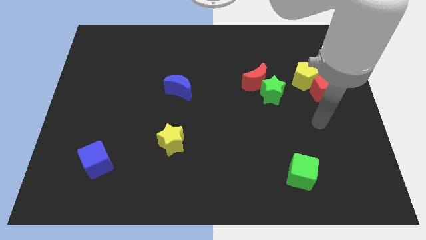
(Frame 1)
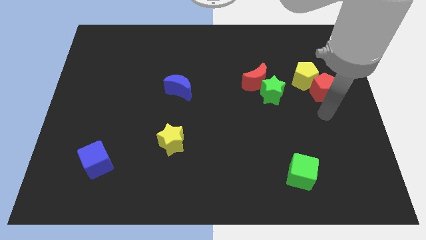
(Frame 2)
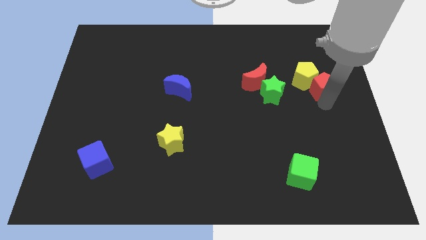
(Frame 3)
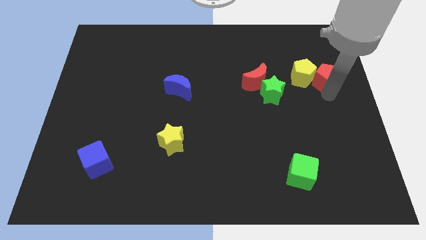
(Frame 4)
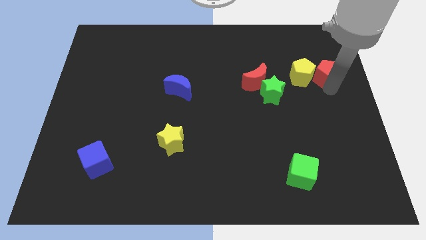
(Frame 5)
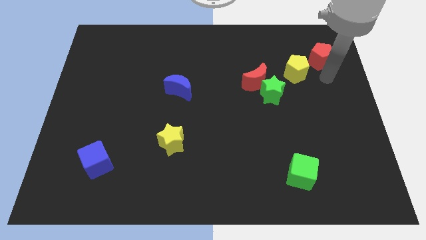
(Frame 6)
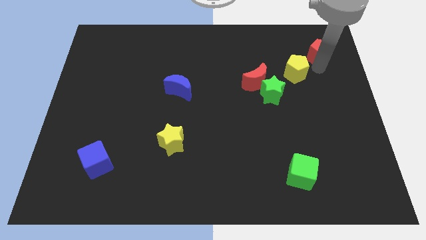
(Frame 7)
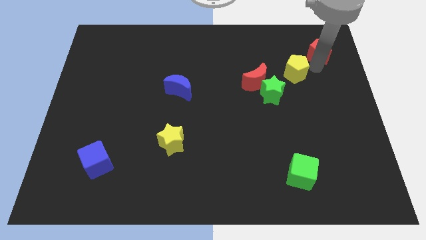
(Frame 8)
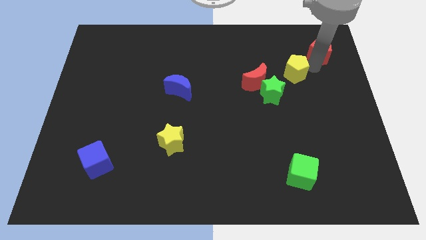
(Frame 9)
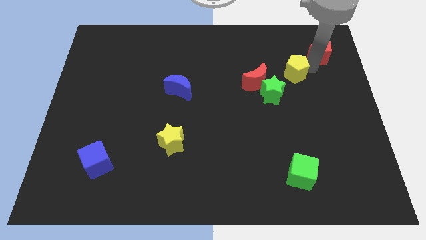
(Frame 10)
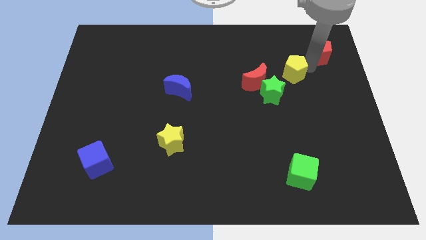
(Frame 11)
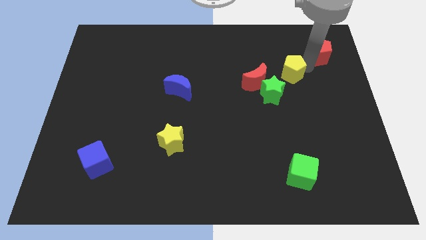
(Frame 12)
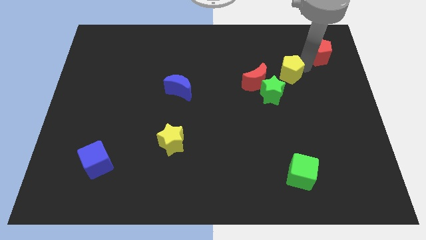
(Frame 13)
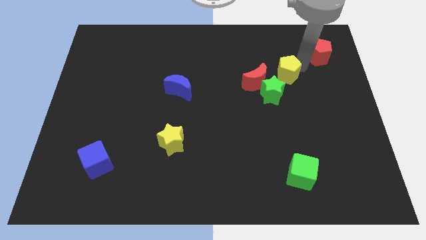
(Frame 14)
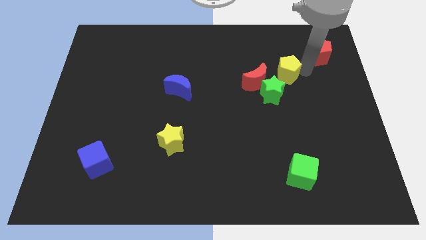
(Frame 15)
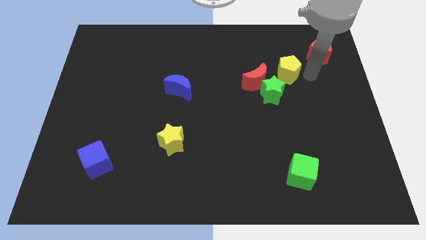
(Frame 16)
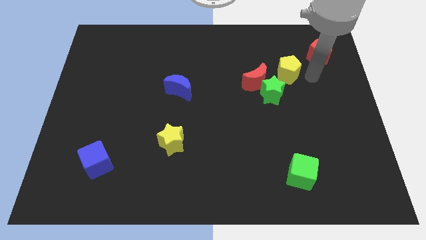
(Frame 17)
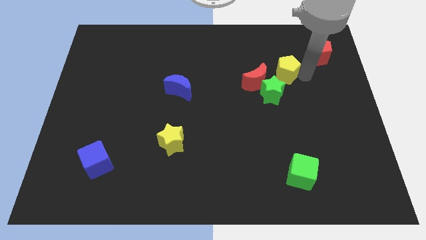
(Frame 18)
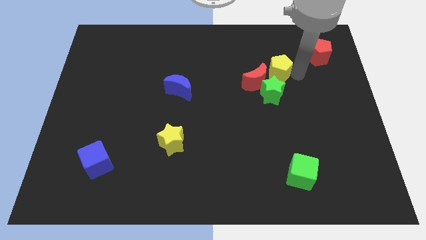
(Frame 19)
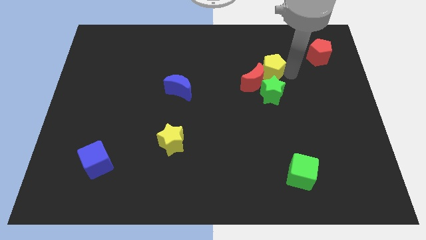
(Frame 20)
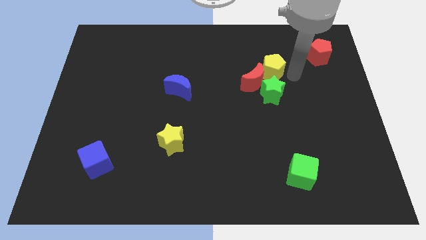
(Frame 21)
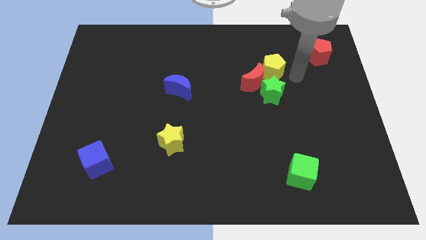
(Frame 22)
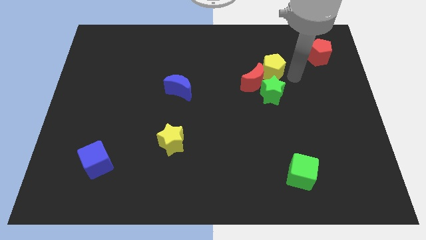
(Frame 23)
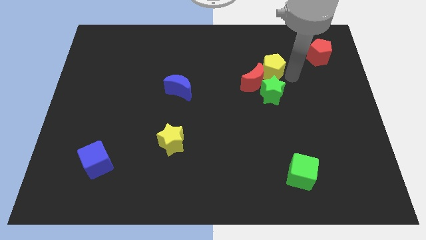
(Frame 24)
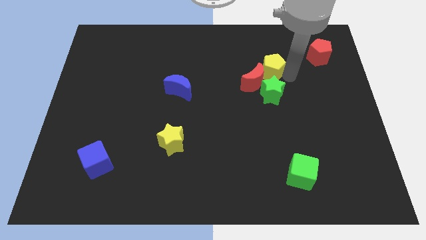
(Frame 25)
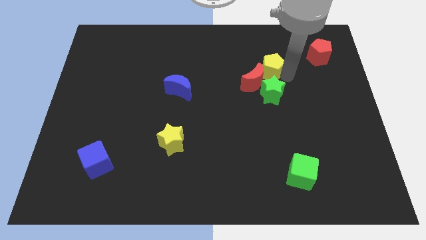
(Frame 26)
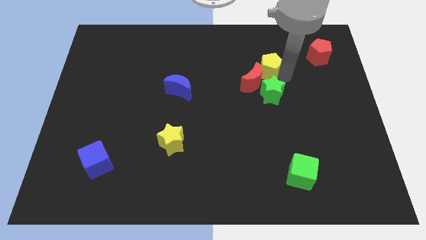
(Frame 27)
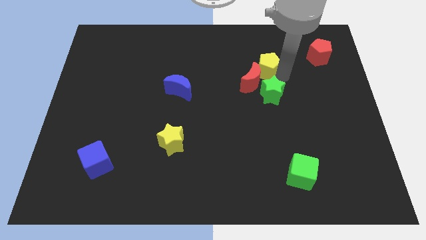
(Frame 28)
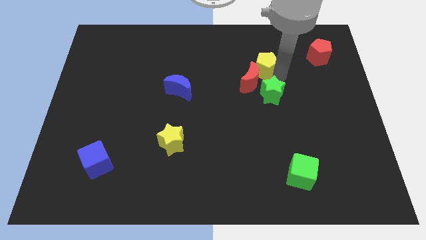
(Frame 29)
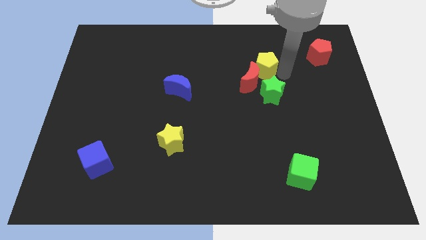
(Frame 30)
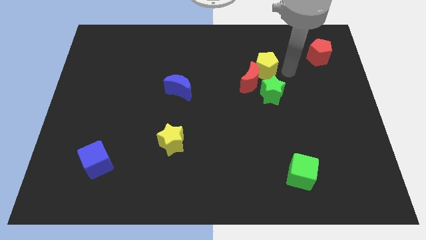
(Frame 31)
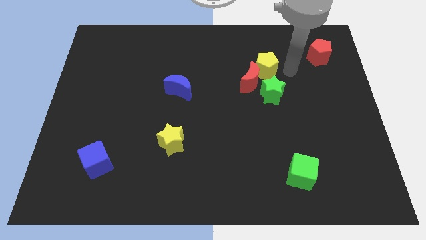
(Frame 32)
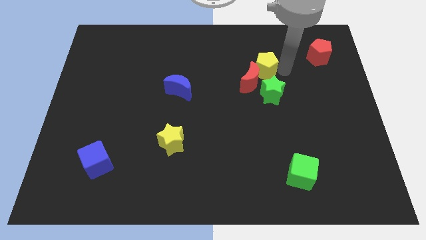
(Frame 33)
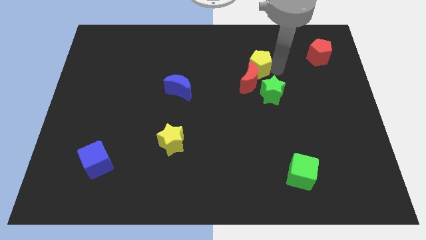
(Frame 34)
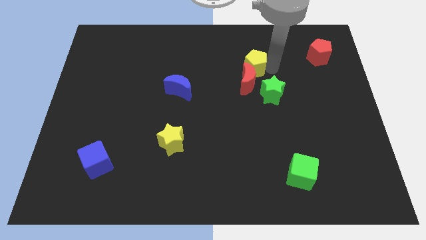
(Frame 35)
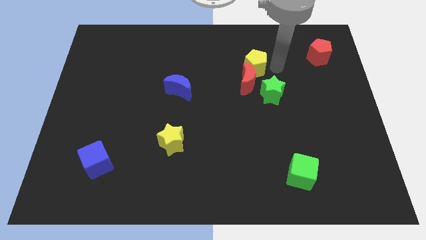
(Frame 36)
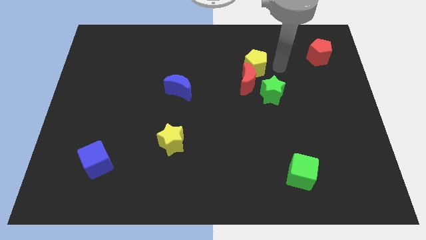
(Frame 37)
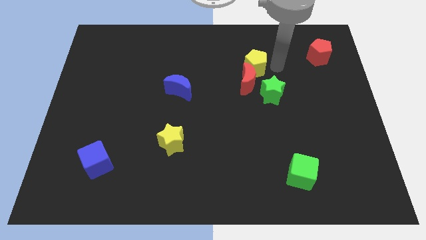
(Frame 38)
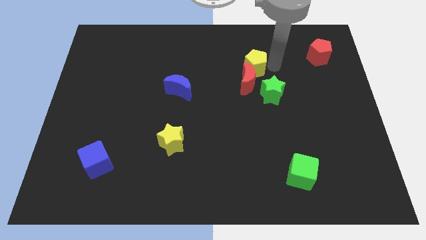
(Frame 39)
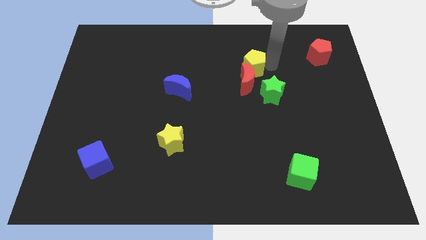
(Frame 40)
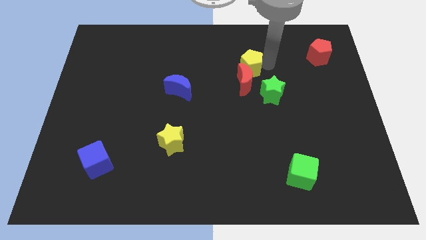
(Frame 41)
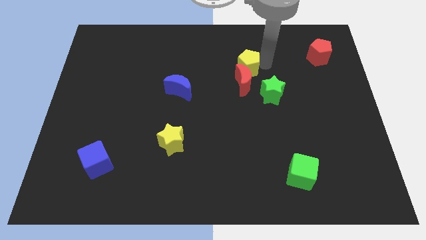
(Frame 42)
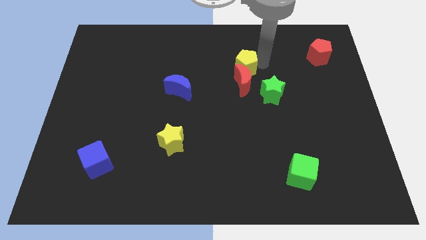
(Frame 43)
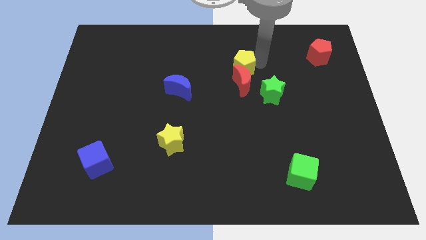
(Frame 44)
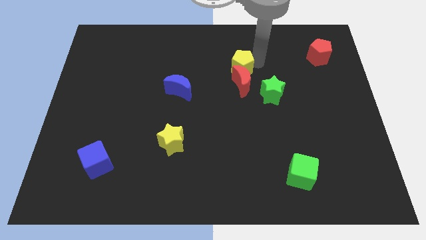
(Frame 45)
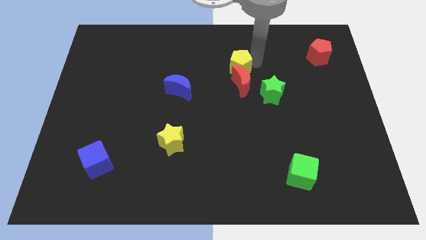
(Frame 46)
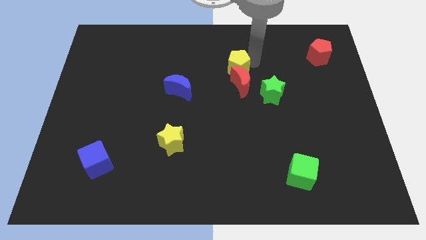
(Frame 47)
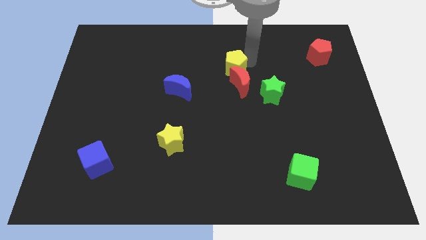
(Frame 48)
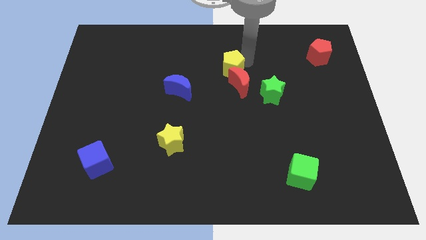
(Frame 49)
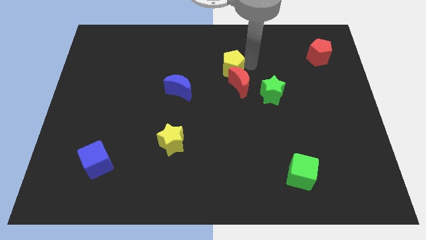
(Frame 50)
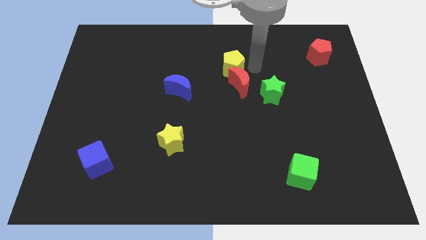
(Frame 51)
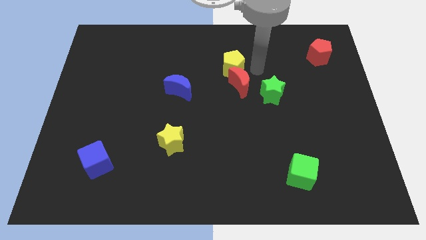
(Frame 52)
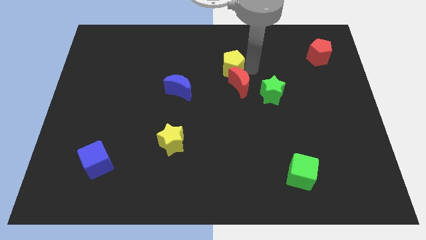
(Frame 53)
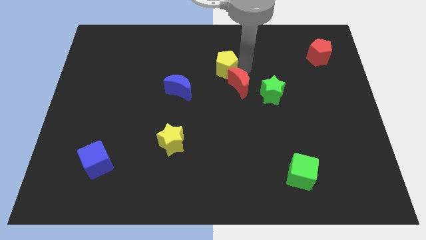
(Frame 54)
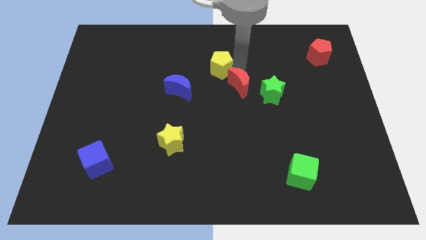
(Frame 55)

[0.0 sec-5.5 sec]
push the yellow pentagon to the left

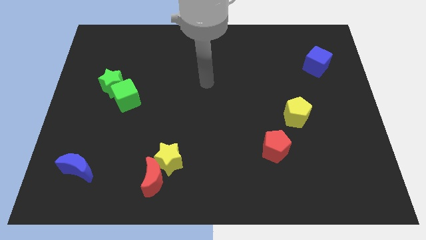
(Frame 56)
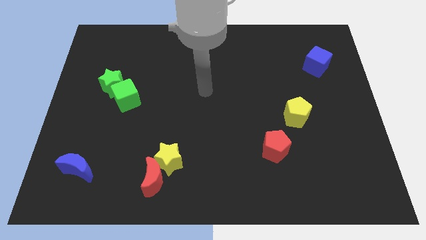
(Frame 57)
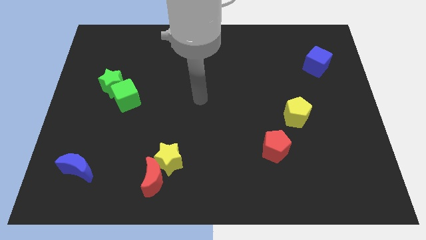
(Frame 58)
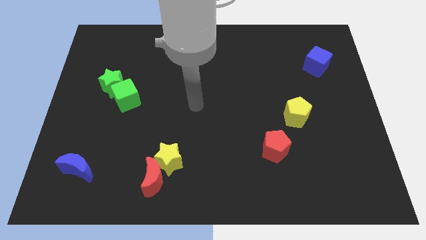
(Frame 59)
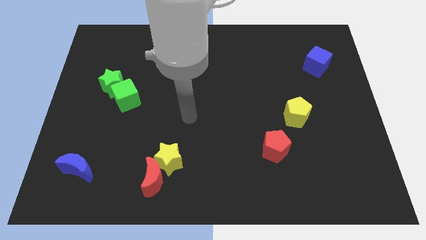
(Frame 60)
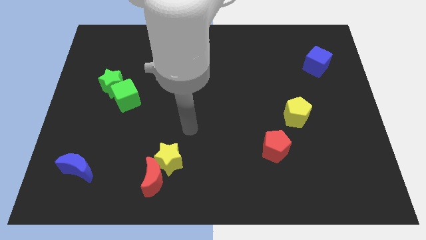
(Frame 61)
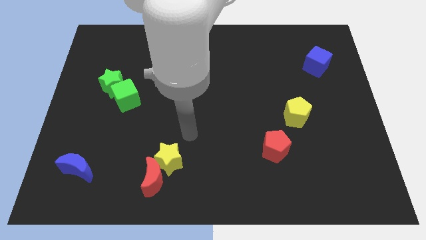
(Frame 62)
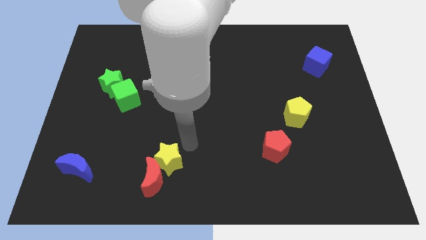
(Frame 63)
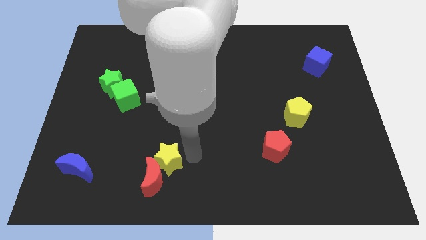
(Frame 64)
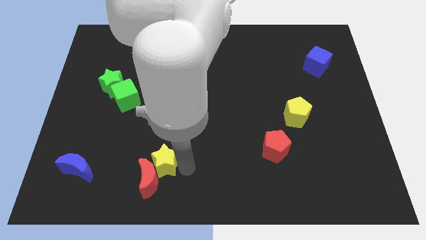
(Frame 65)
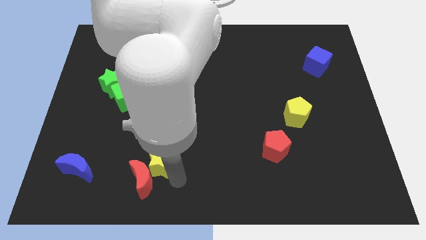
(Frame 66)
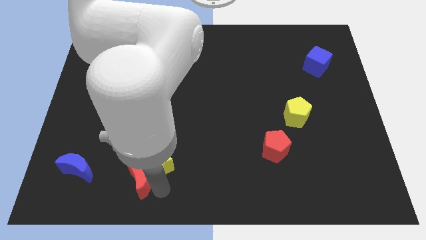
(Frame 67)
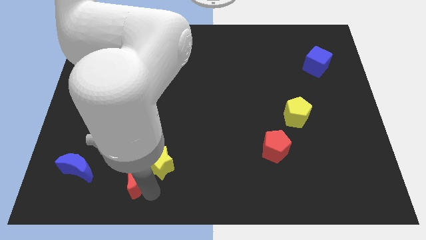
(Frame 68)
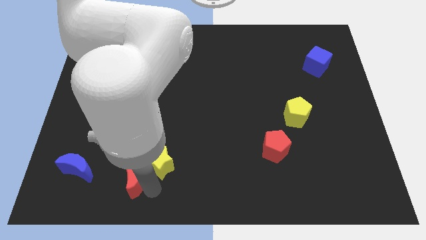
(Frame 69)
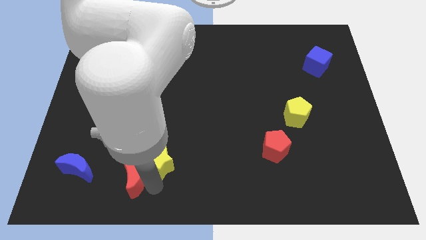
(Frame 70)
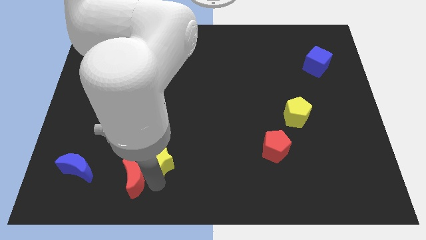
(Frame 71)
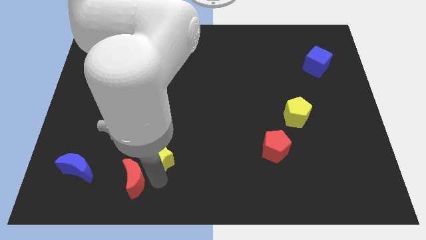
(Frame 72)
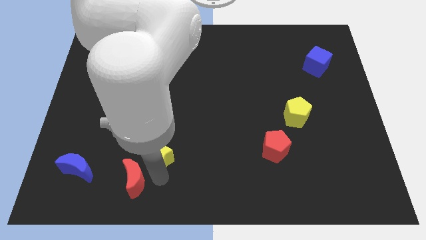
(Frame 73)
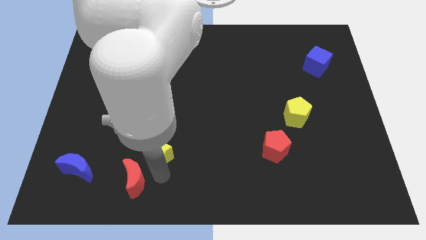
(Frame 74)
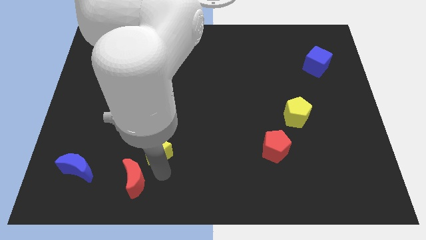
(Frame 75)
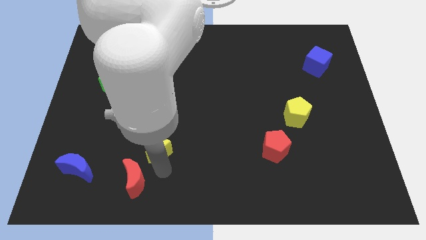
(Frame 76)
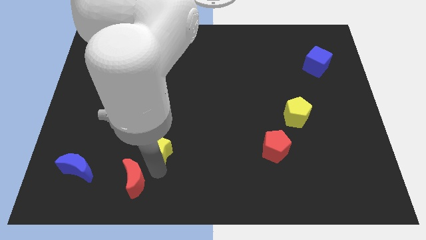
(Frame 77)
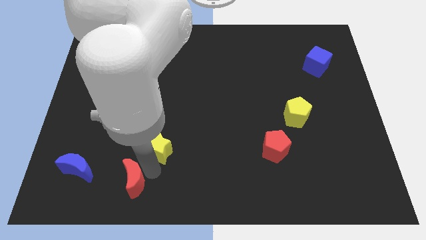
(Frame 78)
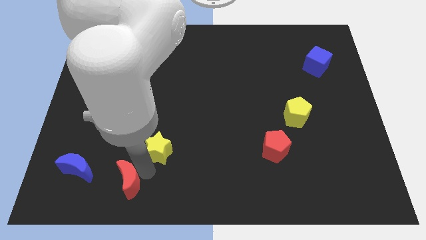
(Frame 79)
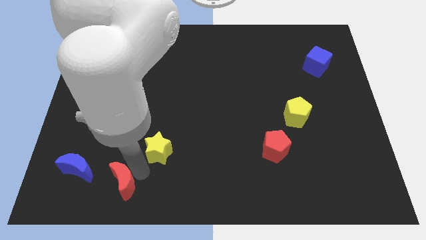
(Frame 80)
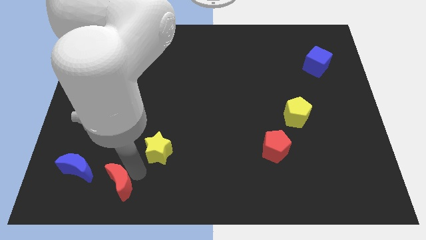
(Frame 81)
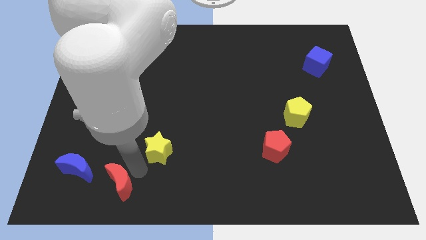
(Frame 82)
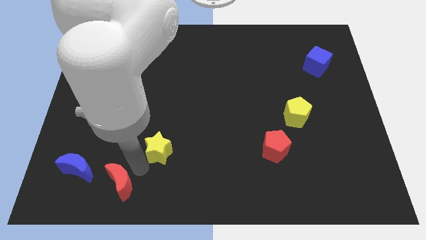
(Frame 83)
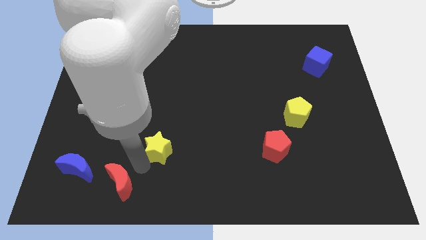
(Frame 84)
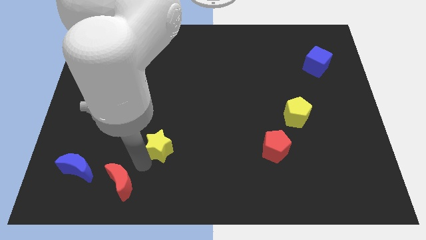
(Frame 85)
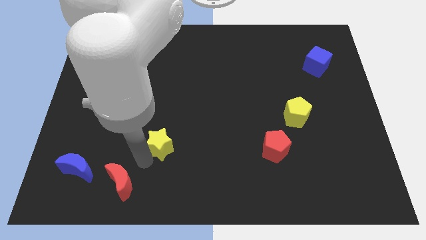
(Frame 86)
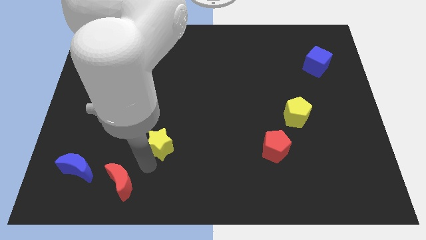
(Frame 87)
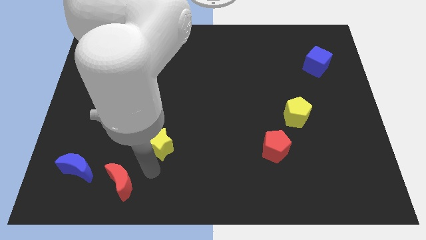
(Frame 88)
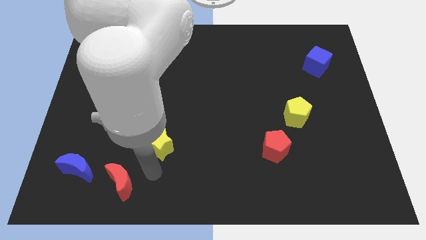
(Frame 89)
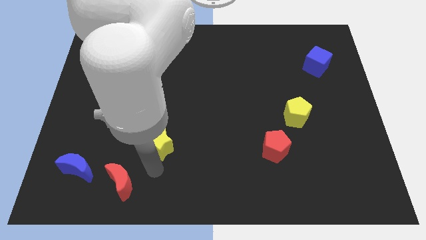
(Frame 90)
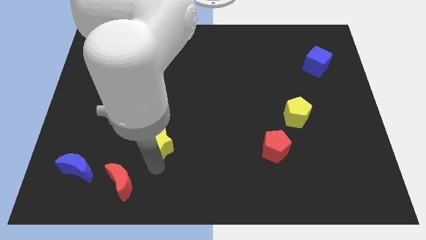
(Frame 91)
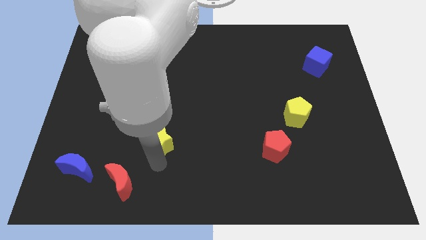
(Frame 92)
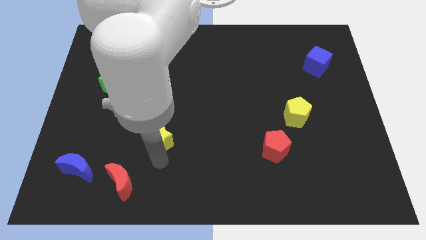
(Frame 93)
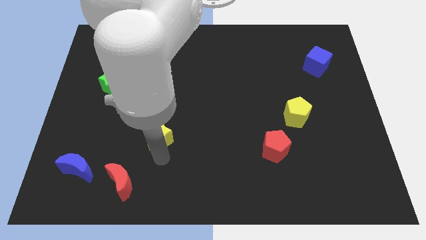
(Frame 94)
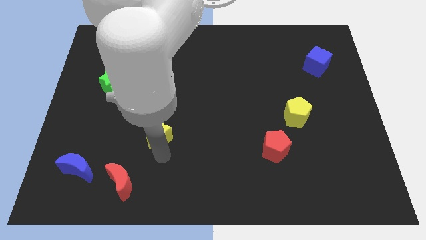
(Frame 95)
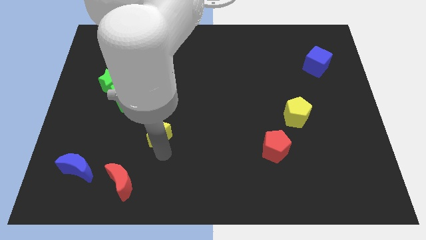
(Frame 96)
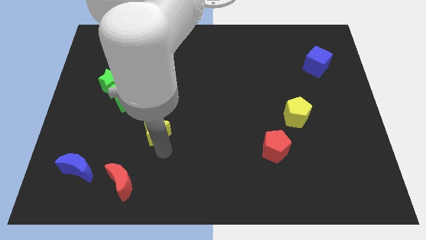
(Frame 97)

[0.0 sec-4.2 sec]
slightly slide the yellow star up
